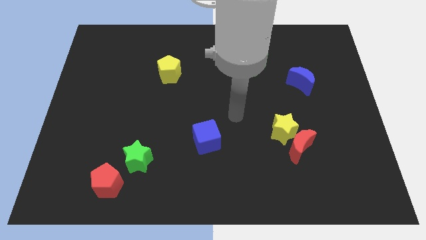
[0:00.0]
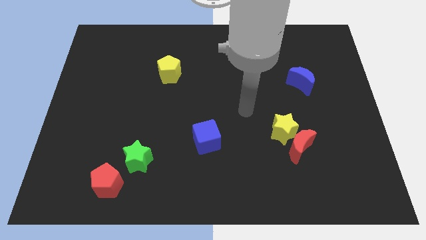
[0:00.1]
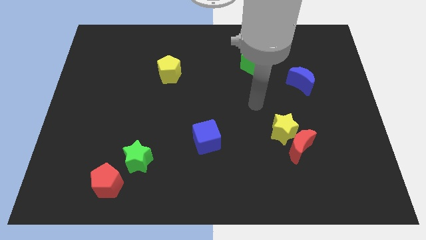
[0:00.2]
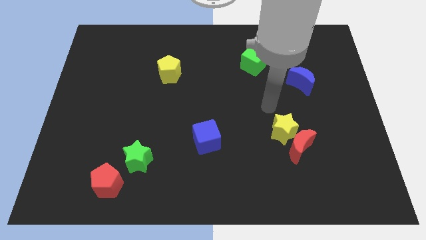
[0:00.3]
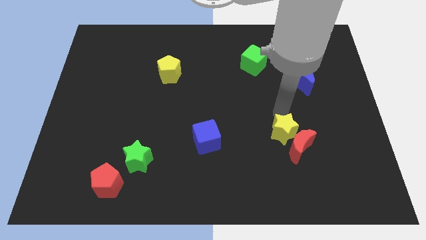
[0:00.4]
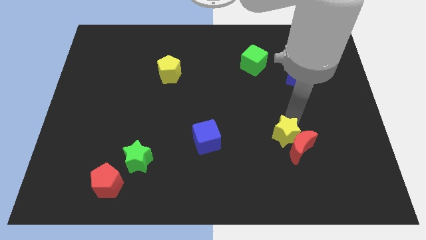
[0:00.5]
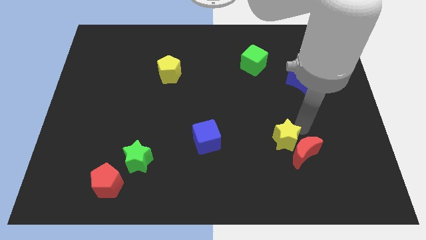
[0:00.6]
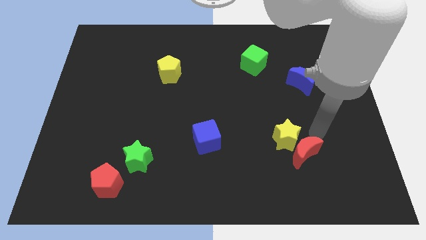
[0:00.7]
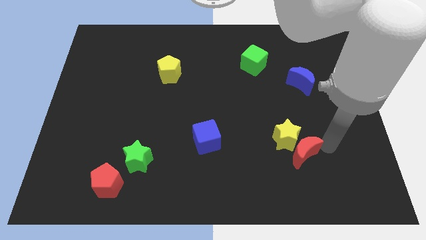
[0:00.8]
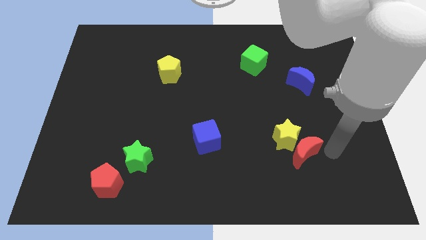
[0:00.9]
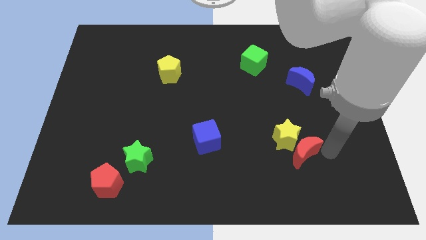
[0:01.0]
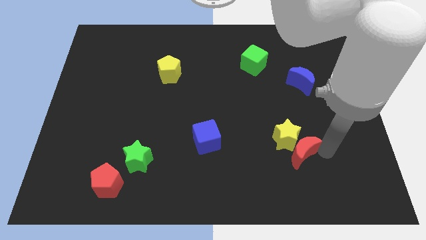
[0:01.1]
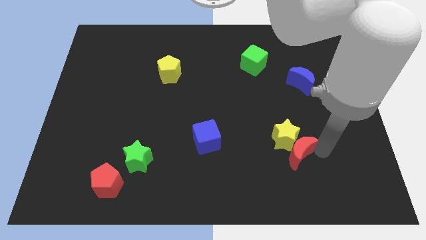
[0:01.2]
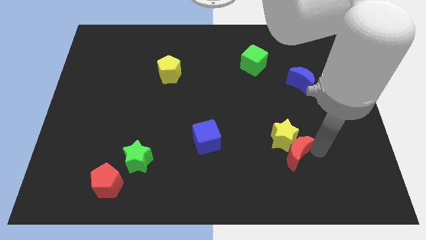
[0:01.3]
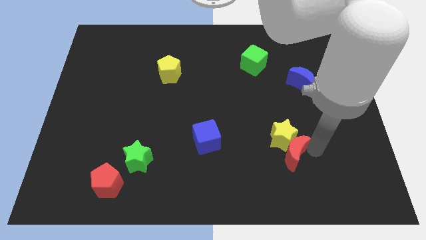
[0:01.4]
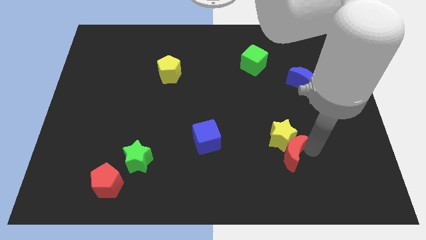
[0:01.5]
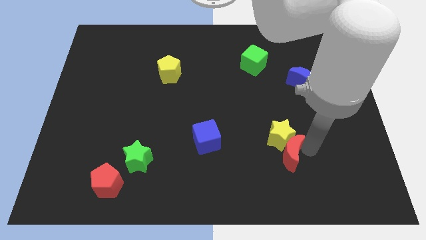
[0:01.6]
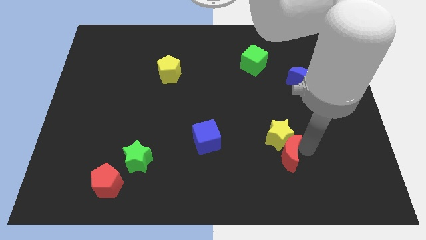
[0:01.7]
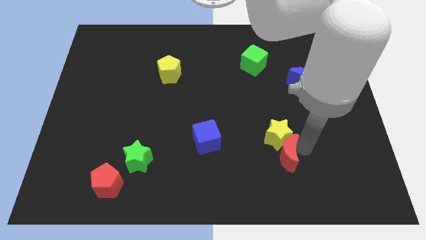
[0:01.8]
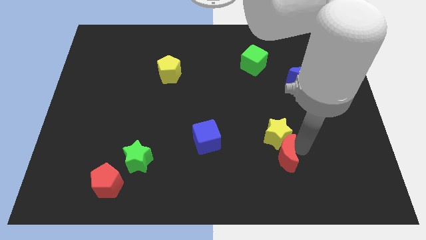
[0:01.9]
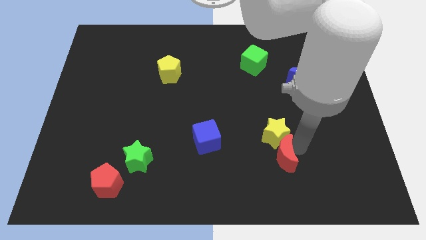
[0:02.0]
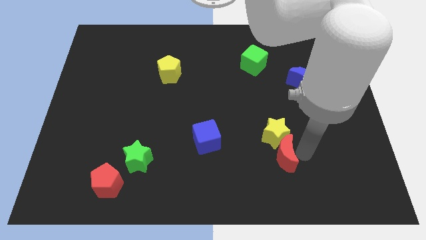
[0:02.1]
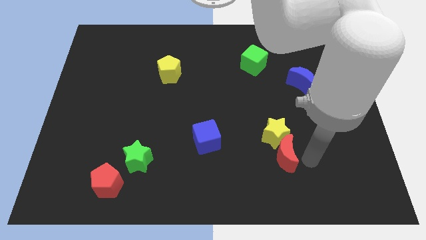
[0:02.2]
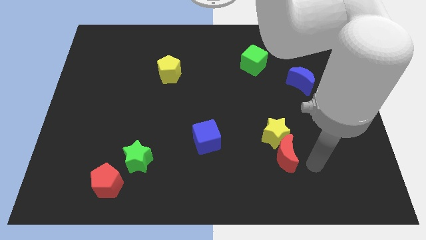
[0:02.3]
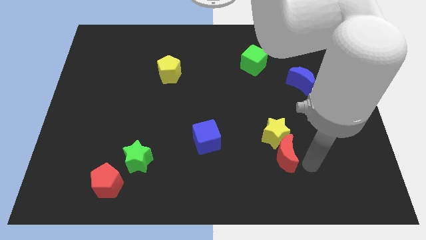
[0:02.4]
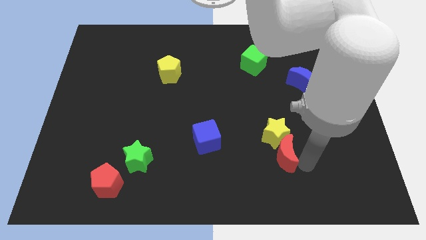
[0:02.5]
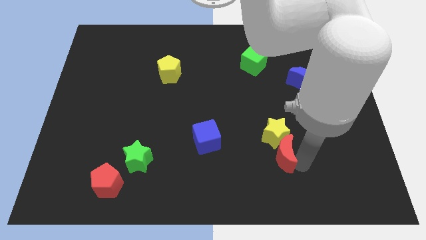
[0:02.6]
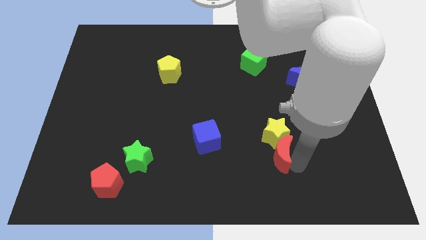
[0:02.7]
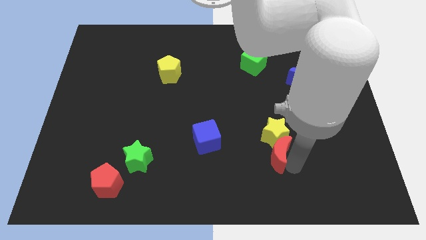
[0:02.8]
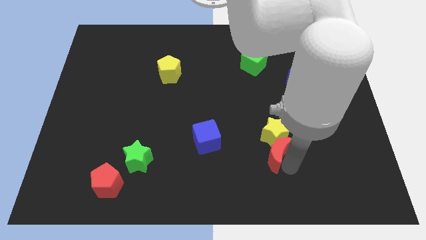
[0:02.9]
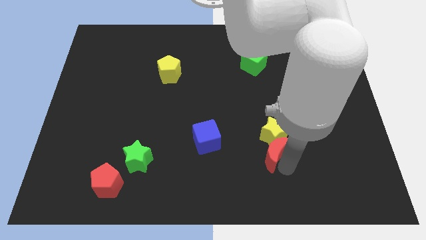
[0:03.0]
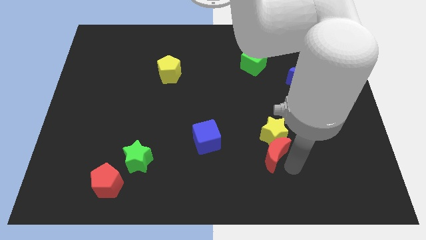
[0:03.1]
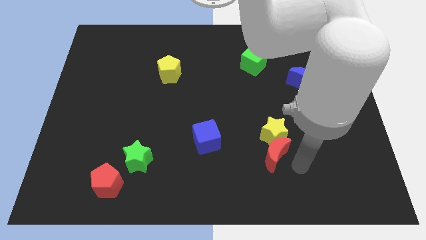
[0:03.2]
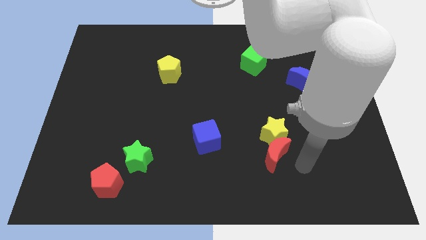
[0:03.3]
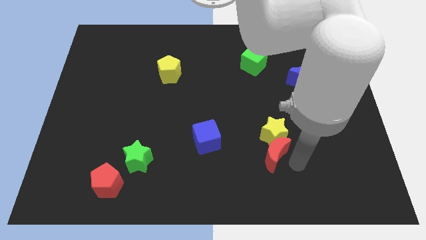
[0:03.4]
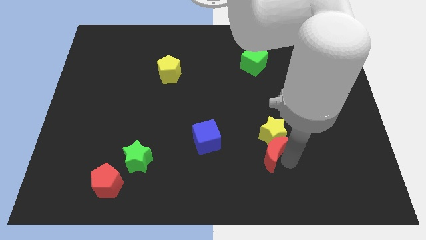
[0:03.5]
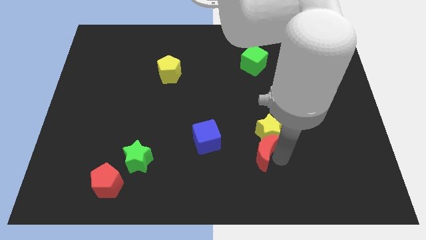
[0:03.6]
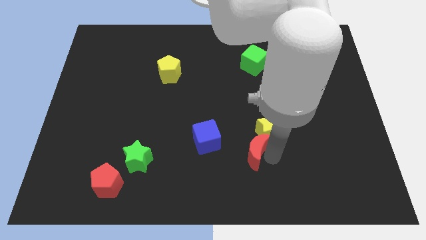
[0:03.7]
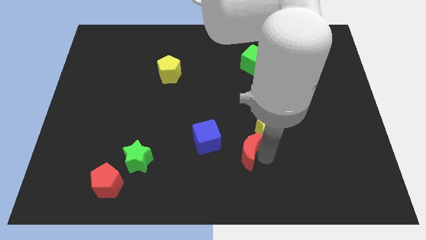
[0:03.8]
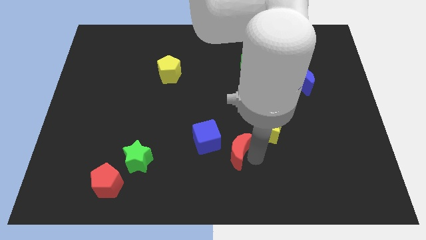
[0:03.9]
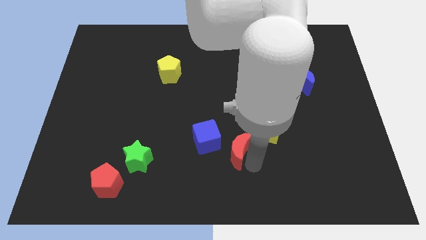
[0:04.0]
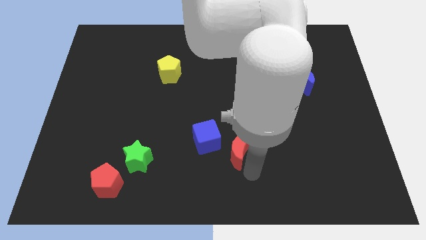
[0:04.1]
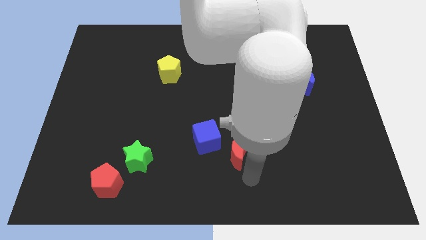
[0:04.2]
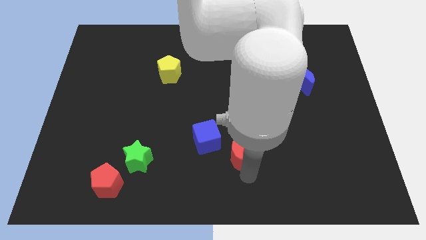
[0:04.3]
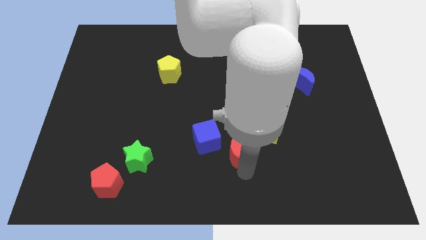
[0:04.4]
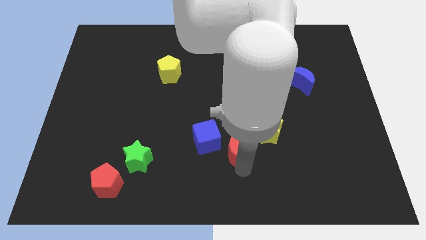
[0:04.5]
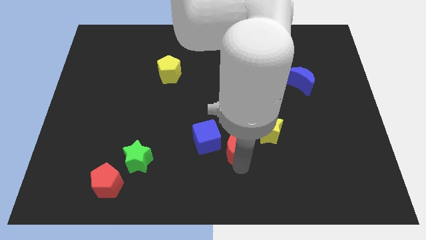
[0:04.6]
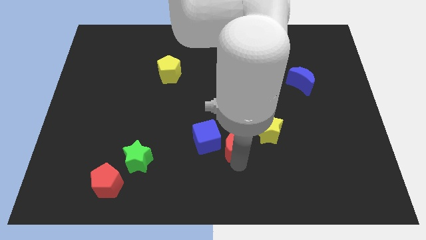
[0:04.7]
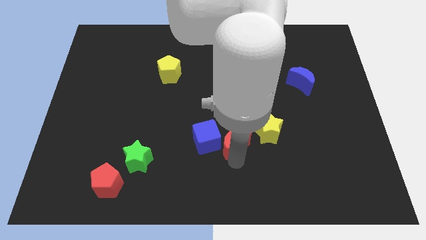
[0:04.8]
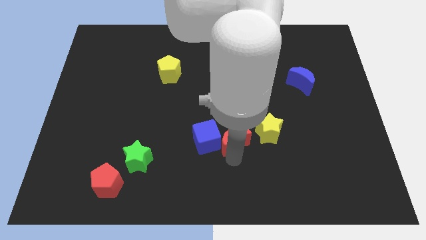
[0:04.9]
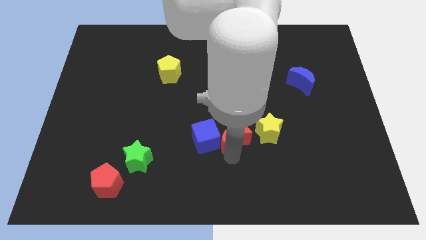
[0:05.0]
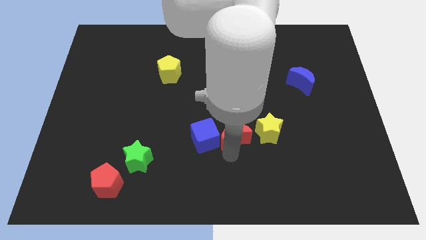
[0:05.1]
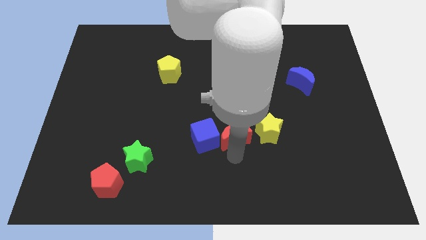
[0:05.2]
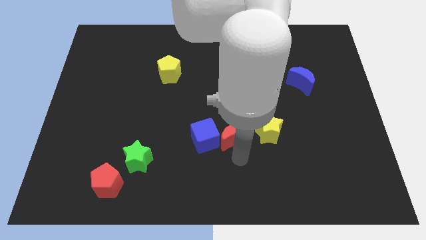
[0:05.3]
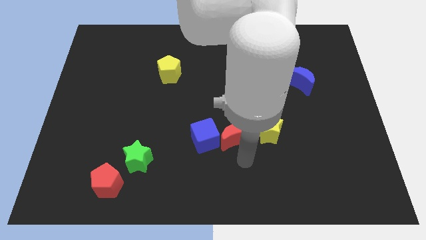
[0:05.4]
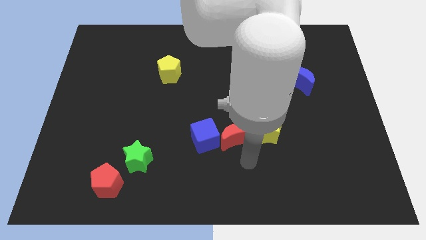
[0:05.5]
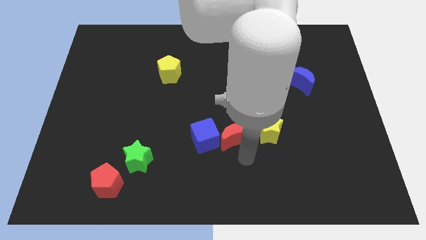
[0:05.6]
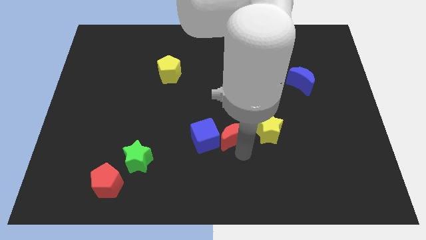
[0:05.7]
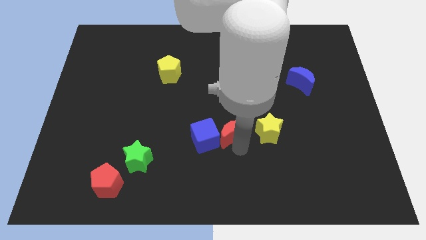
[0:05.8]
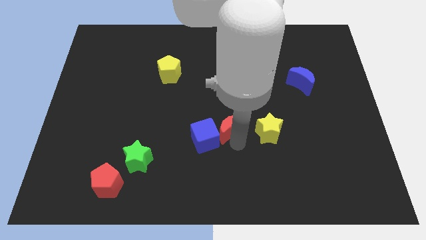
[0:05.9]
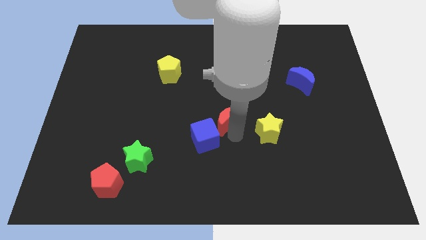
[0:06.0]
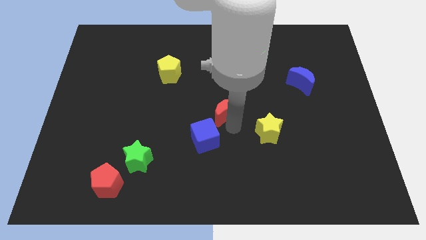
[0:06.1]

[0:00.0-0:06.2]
put the red moon to the top side of the blue cube

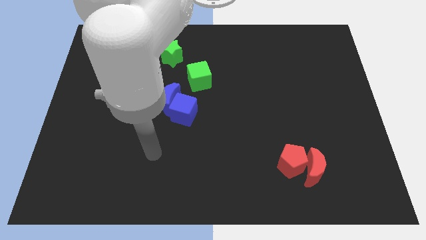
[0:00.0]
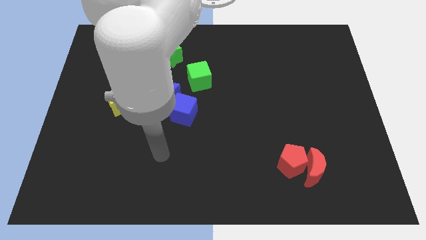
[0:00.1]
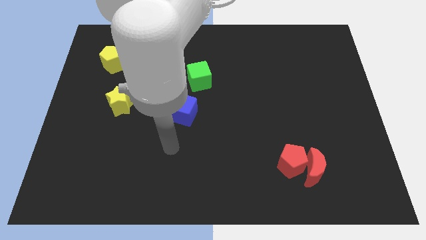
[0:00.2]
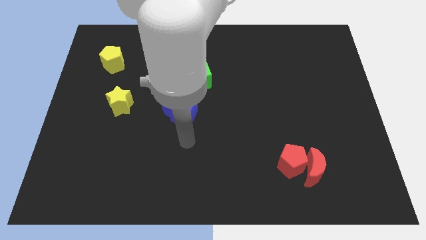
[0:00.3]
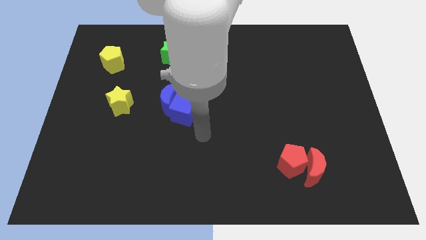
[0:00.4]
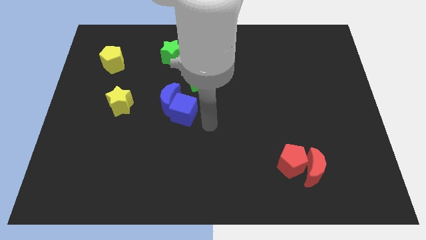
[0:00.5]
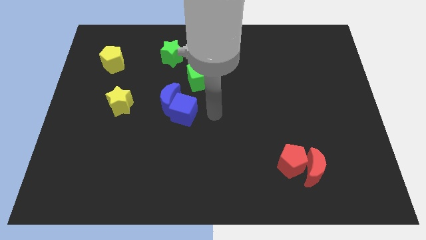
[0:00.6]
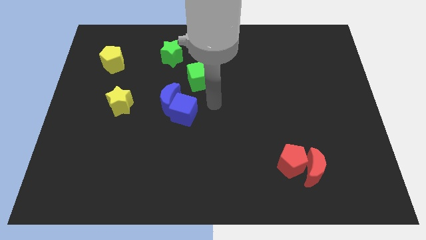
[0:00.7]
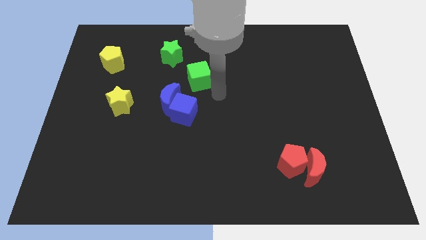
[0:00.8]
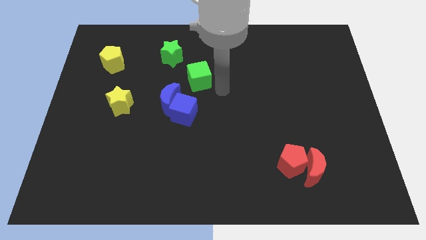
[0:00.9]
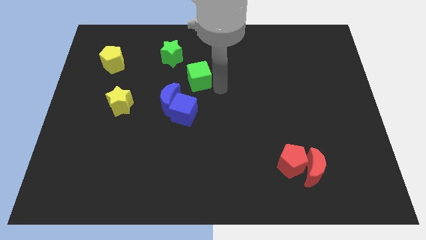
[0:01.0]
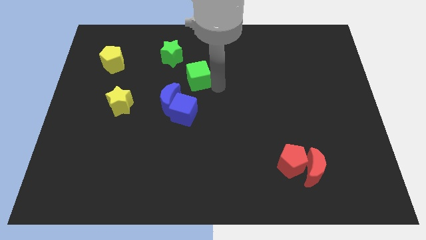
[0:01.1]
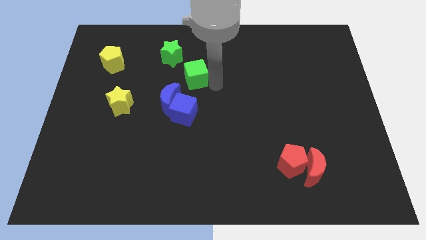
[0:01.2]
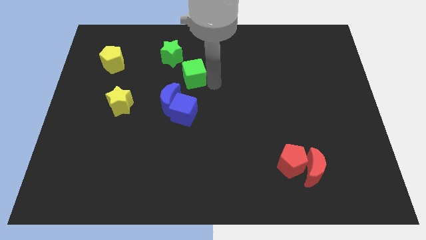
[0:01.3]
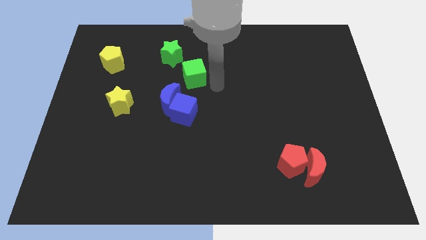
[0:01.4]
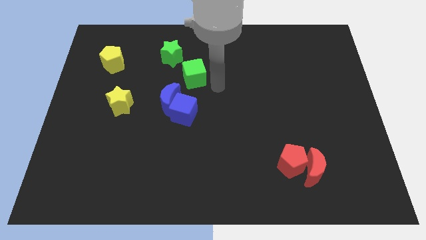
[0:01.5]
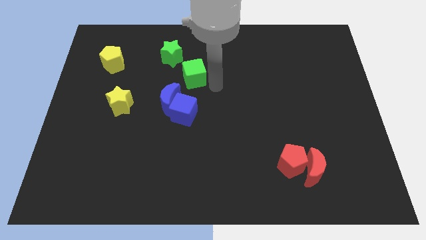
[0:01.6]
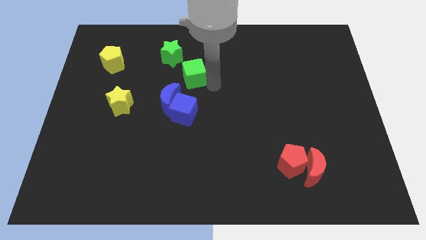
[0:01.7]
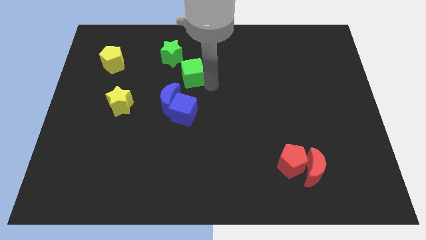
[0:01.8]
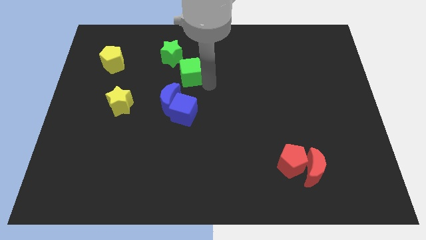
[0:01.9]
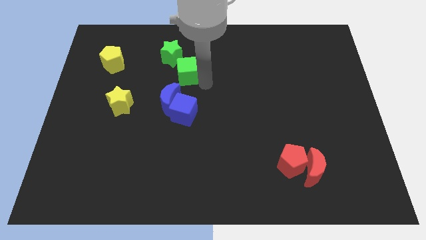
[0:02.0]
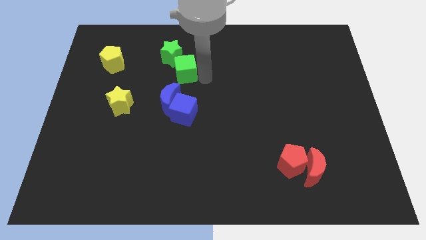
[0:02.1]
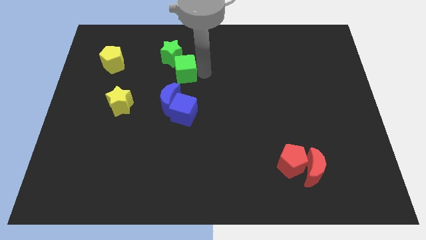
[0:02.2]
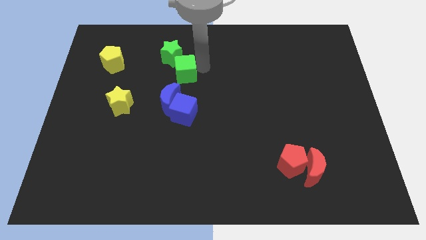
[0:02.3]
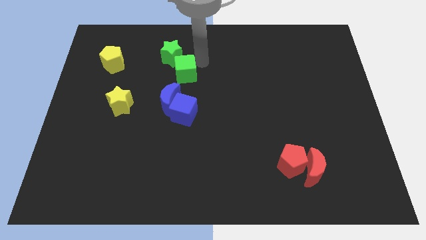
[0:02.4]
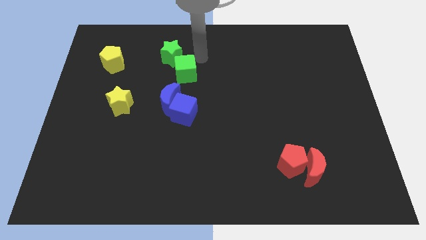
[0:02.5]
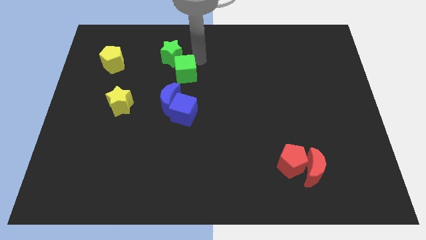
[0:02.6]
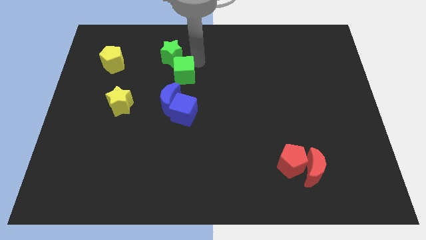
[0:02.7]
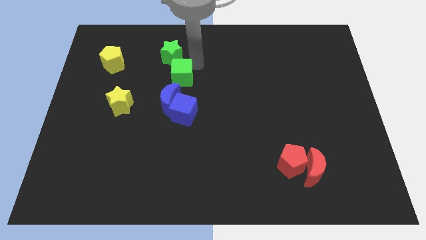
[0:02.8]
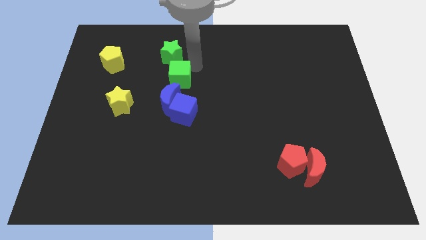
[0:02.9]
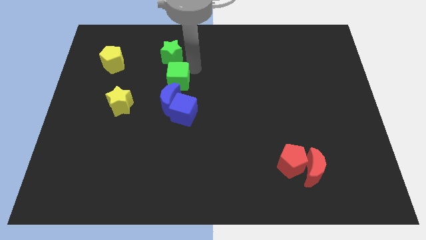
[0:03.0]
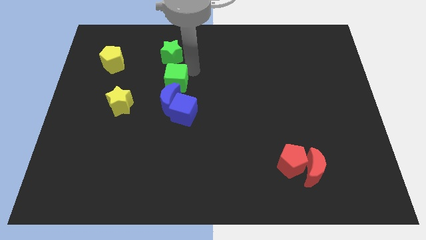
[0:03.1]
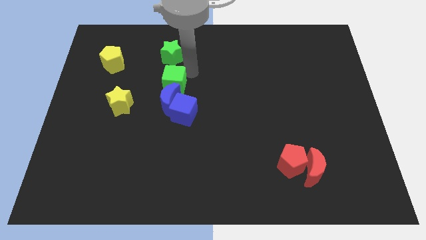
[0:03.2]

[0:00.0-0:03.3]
slide the green cube to the top left side of the blue cube
